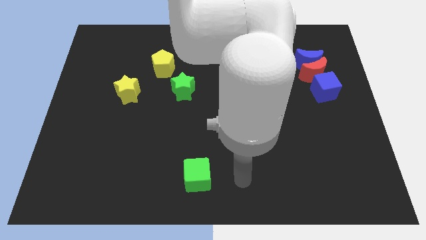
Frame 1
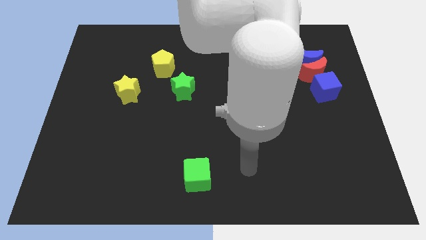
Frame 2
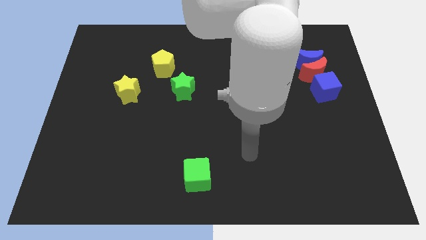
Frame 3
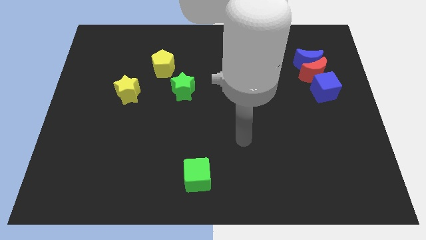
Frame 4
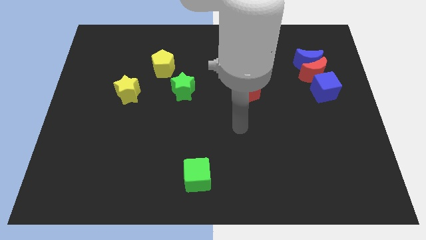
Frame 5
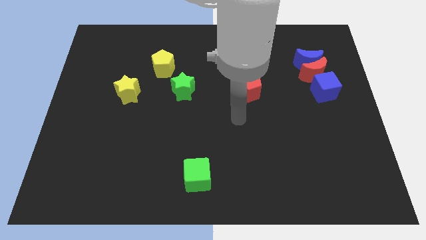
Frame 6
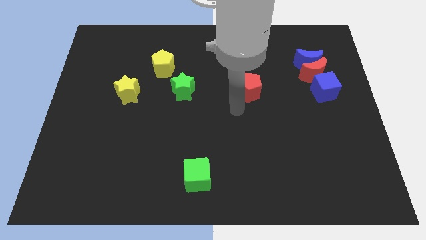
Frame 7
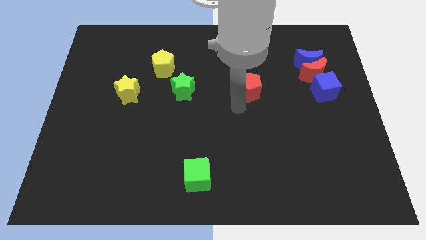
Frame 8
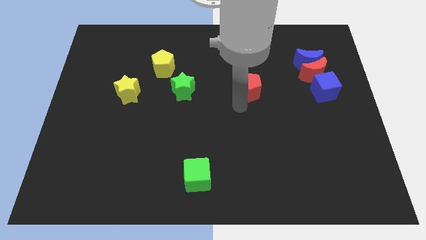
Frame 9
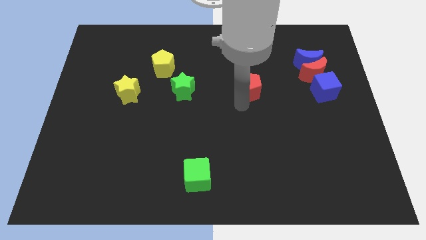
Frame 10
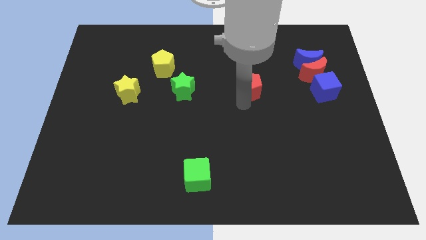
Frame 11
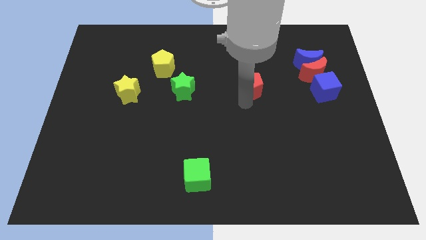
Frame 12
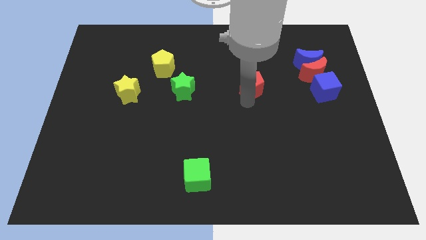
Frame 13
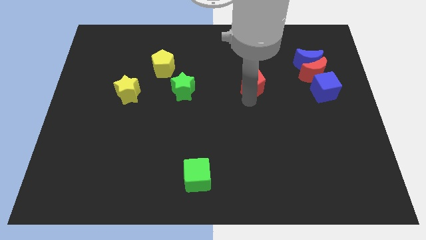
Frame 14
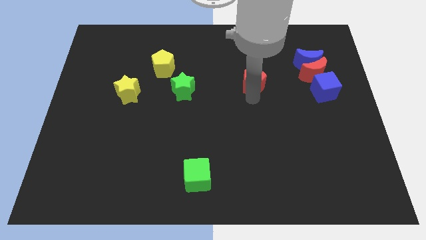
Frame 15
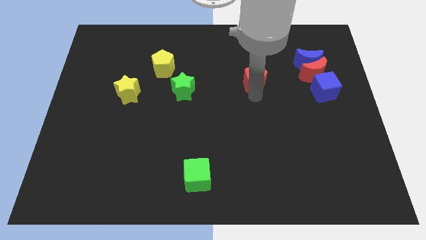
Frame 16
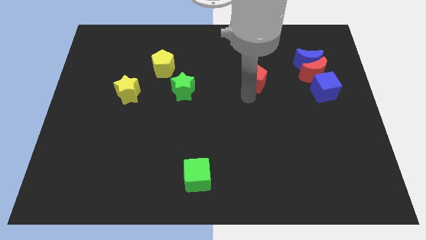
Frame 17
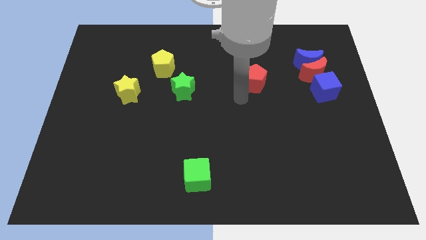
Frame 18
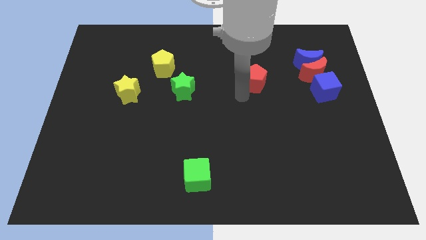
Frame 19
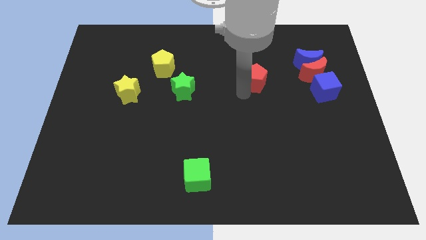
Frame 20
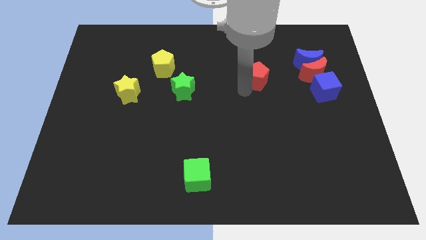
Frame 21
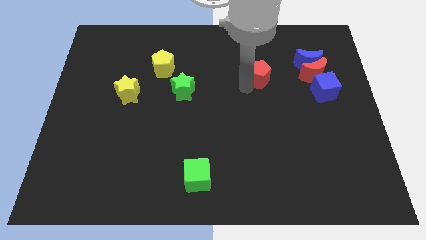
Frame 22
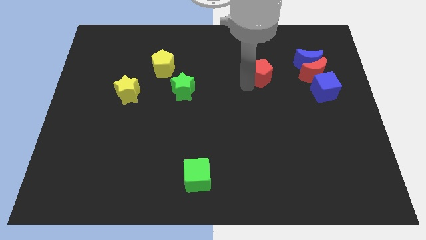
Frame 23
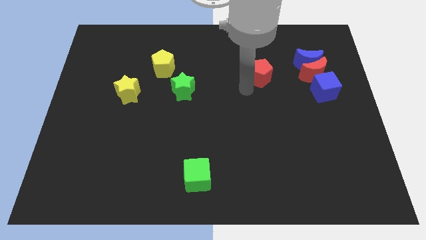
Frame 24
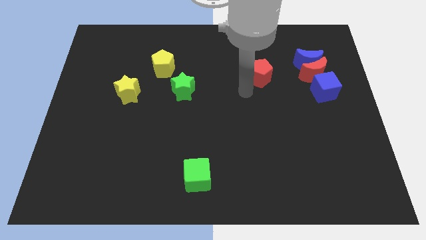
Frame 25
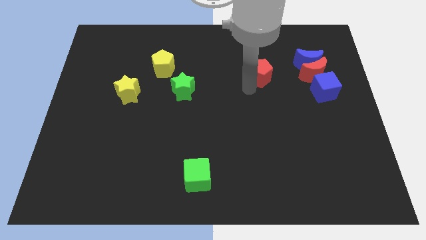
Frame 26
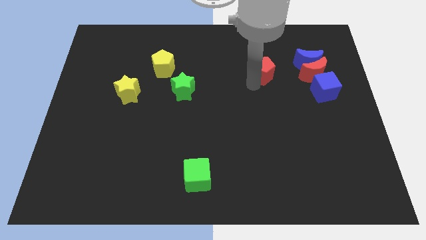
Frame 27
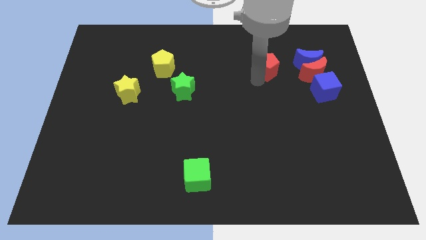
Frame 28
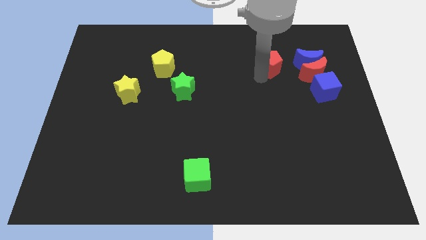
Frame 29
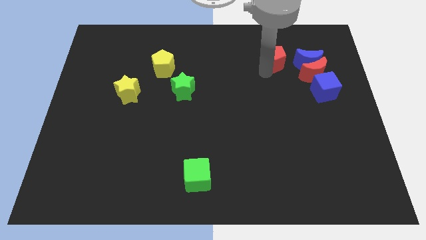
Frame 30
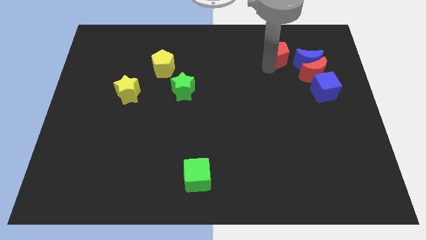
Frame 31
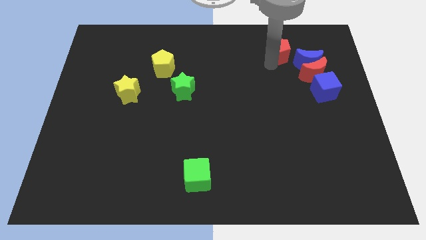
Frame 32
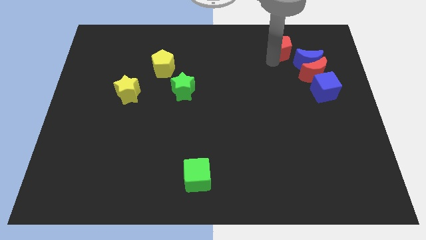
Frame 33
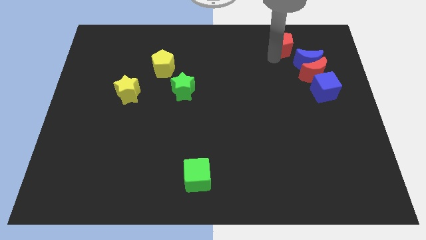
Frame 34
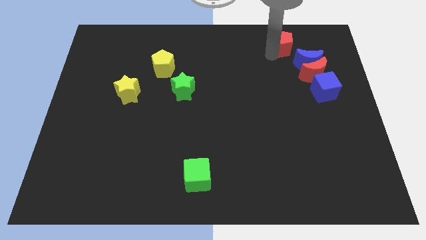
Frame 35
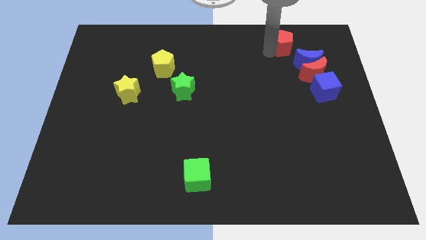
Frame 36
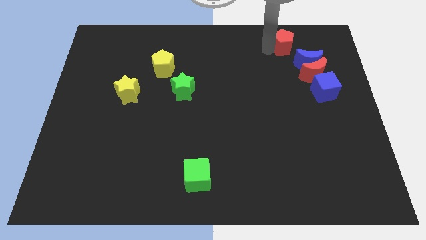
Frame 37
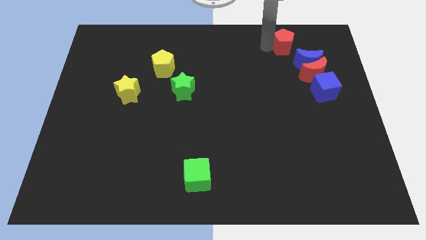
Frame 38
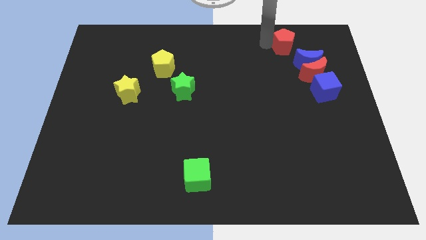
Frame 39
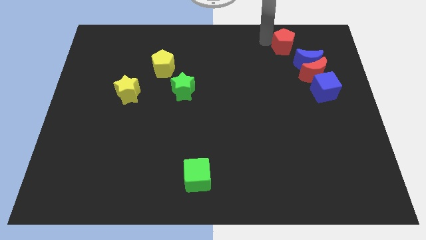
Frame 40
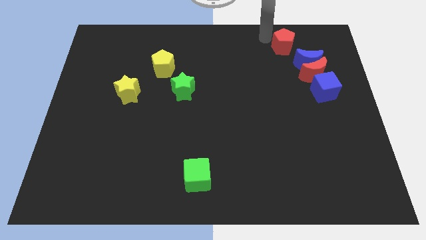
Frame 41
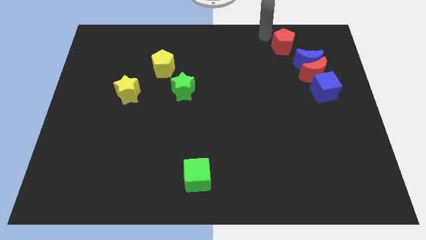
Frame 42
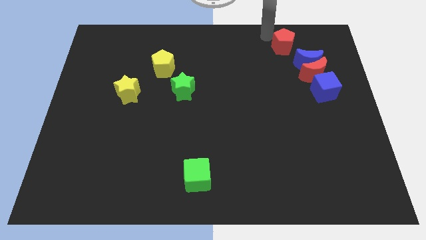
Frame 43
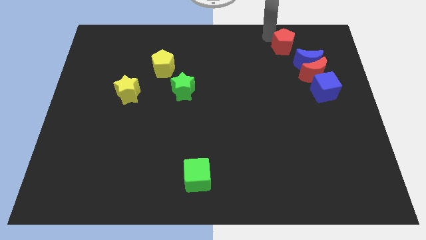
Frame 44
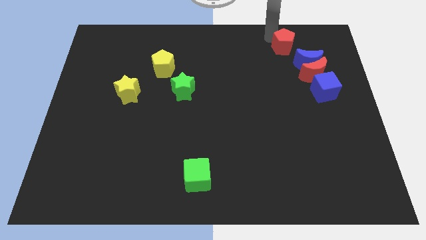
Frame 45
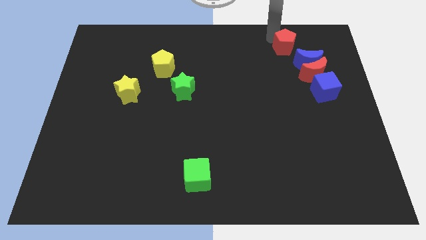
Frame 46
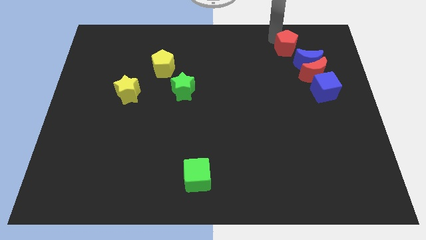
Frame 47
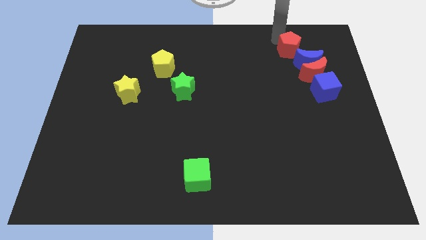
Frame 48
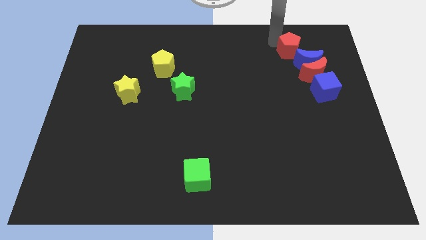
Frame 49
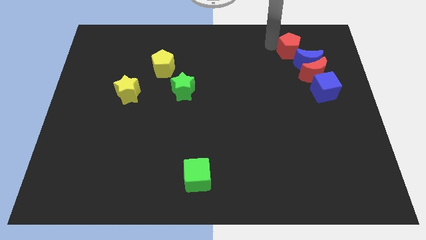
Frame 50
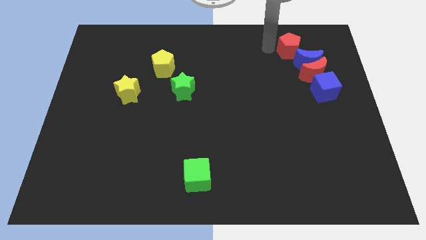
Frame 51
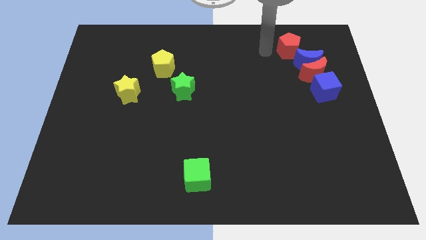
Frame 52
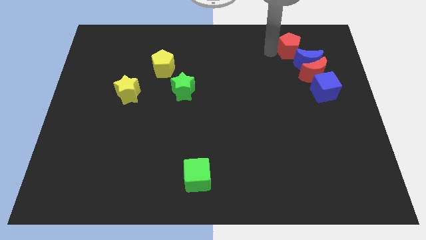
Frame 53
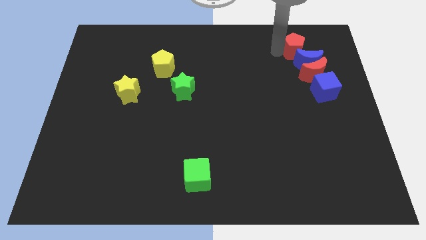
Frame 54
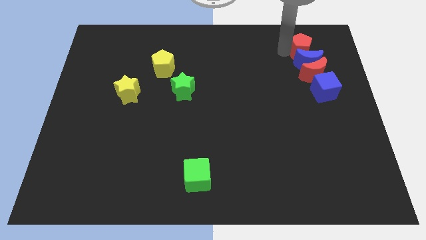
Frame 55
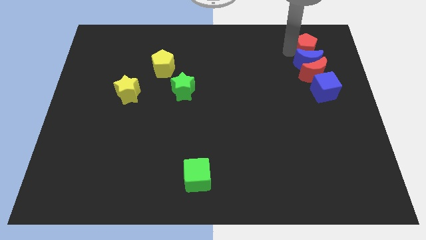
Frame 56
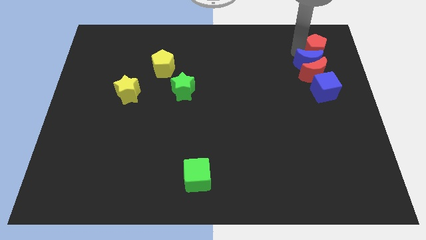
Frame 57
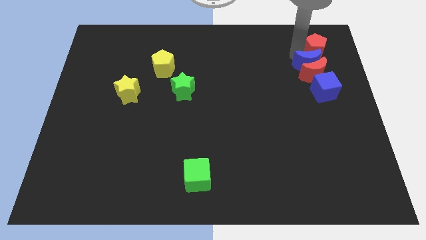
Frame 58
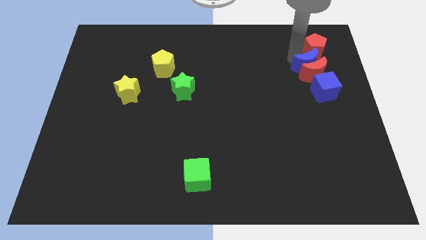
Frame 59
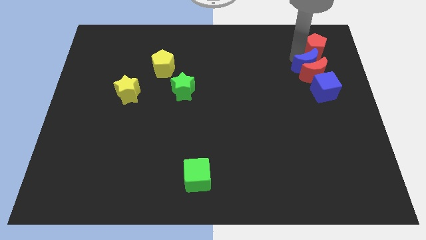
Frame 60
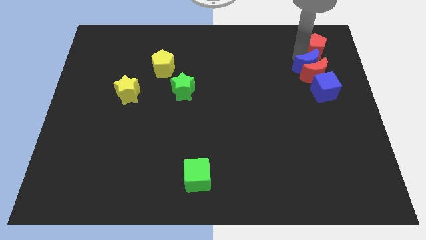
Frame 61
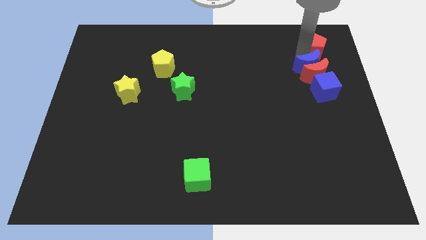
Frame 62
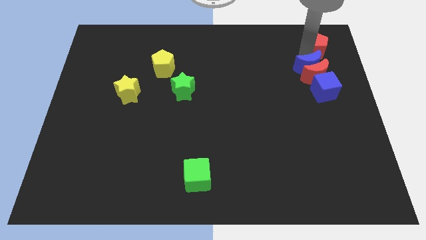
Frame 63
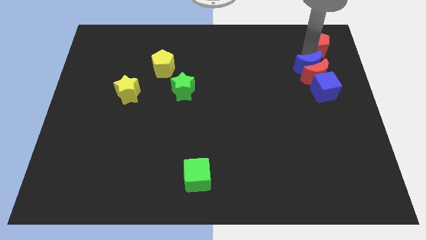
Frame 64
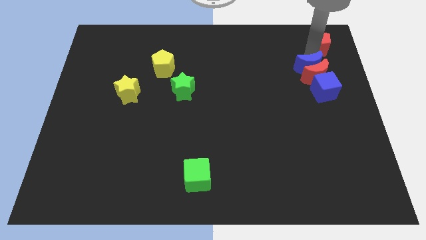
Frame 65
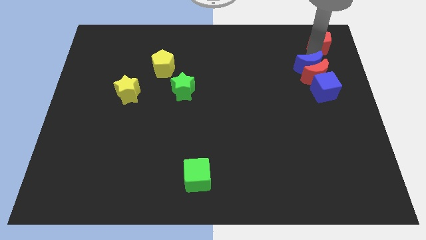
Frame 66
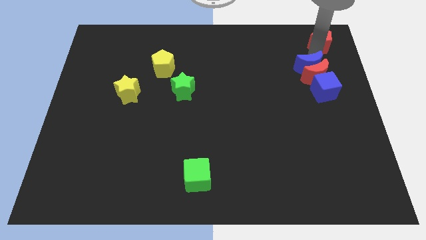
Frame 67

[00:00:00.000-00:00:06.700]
put the red pentagon to the top right corner
